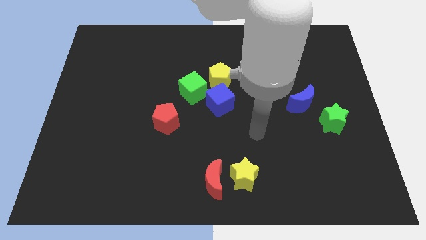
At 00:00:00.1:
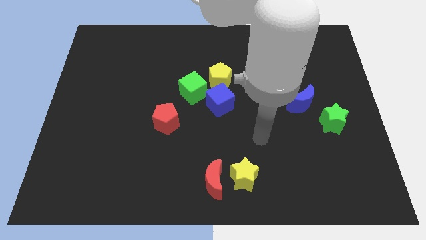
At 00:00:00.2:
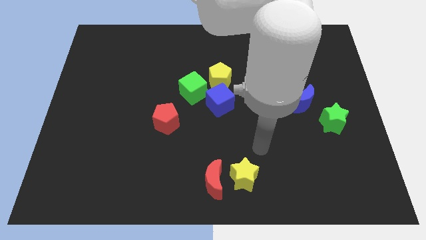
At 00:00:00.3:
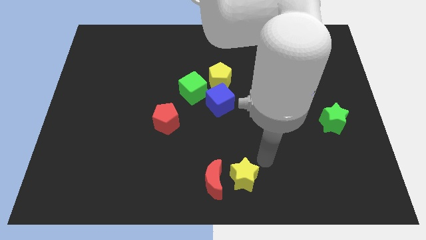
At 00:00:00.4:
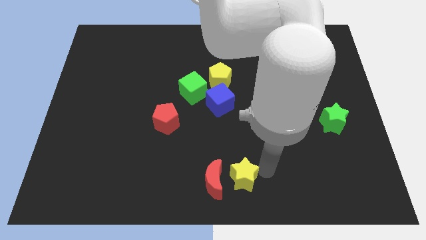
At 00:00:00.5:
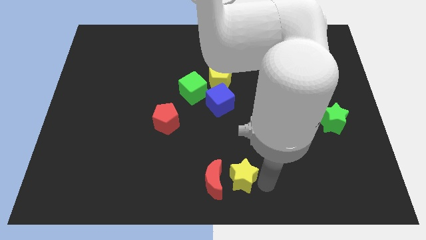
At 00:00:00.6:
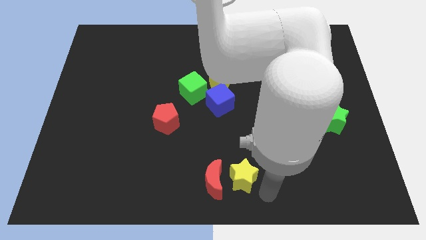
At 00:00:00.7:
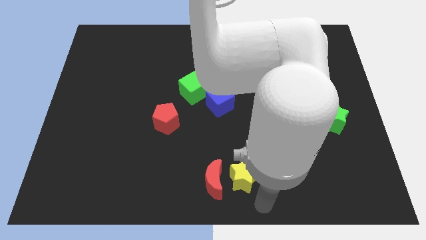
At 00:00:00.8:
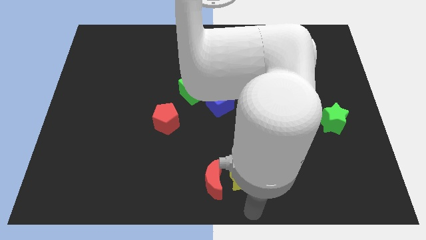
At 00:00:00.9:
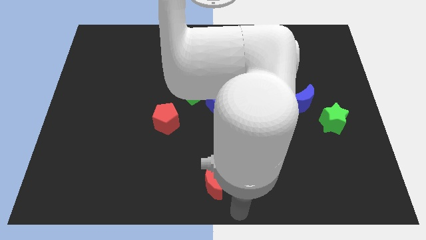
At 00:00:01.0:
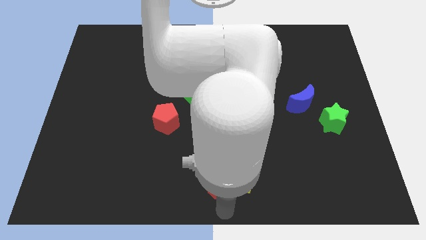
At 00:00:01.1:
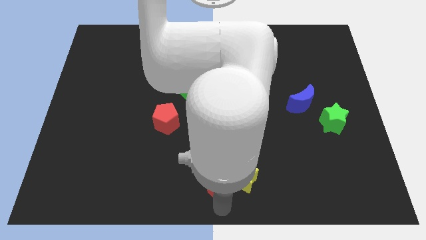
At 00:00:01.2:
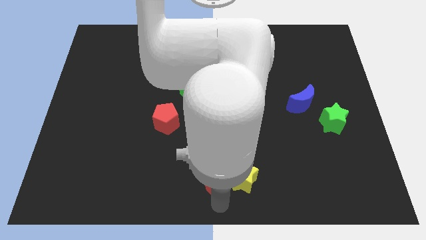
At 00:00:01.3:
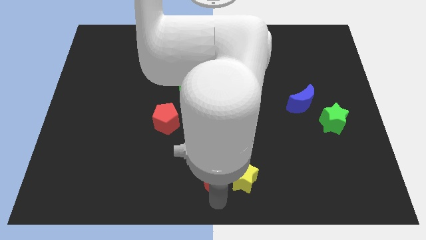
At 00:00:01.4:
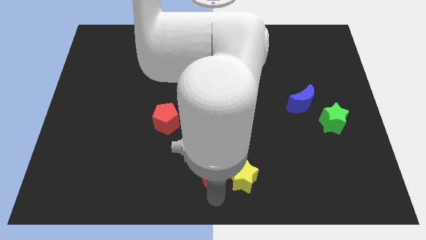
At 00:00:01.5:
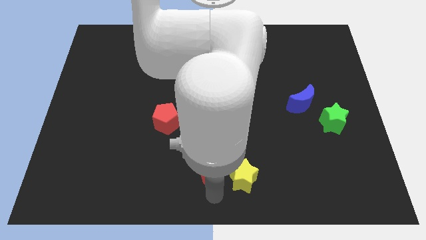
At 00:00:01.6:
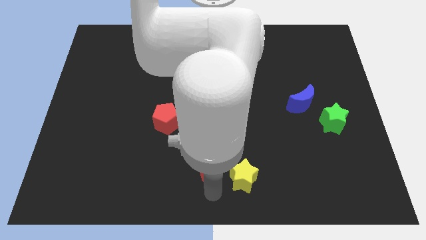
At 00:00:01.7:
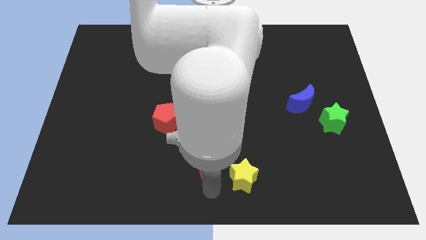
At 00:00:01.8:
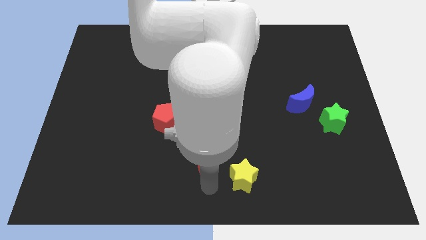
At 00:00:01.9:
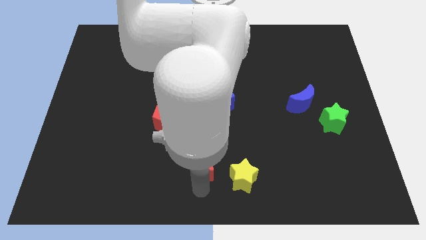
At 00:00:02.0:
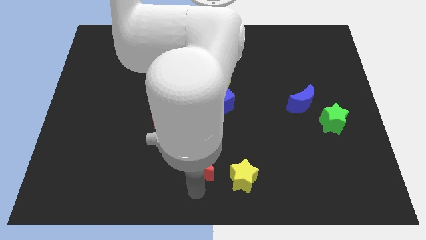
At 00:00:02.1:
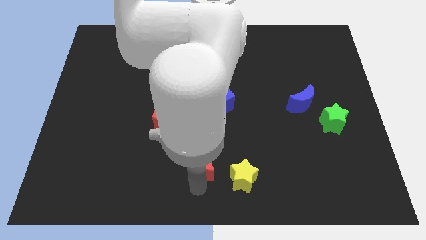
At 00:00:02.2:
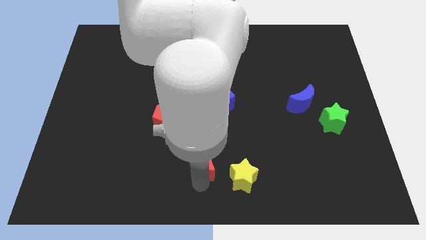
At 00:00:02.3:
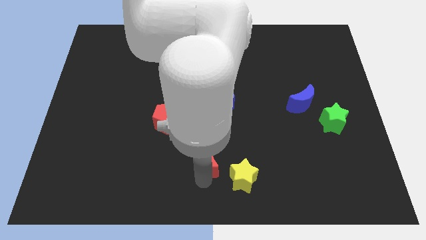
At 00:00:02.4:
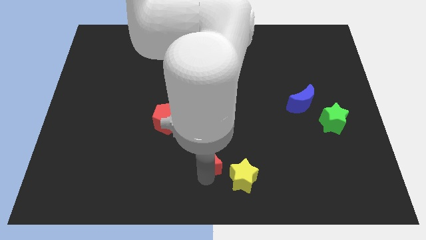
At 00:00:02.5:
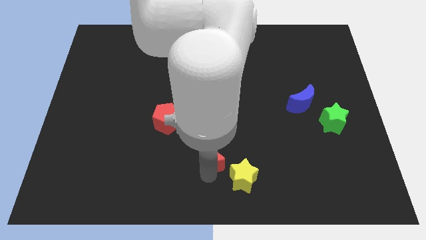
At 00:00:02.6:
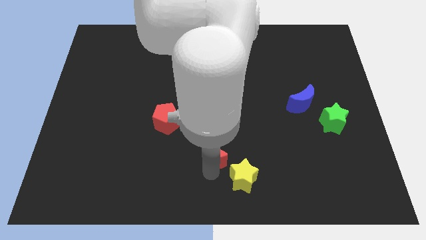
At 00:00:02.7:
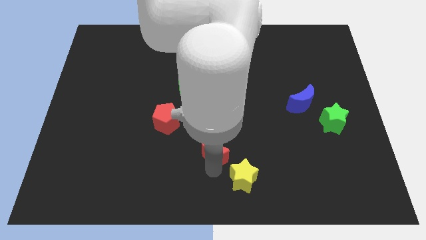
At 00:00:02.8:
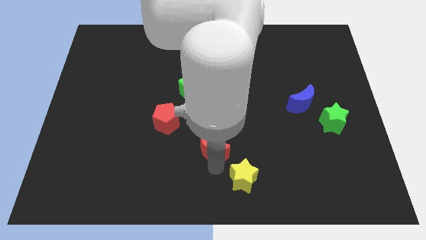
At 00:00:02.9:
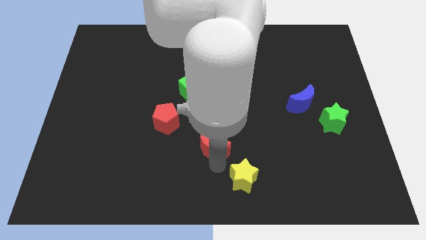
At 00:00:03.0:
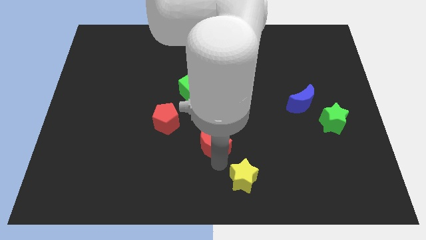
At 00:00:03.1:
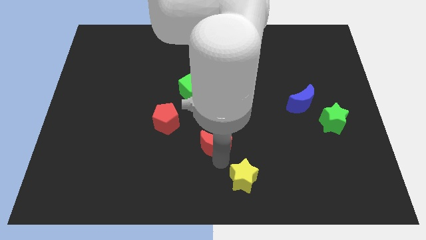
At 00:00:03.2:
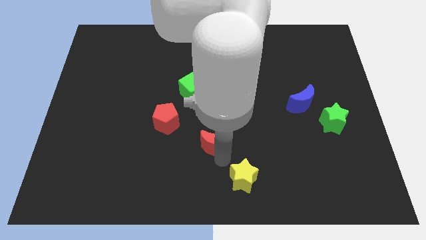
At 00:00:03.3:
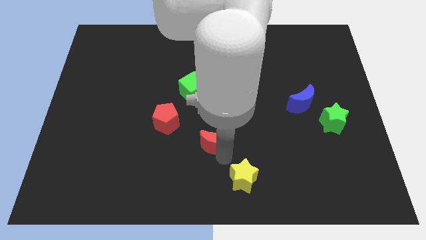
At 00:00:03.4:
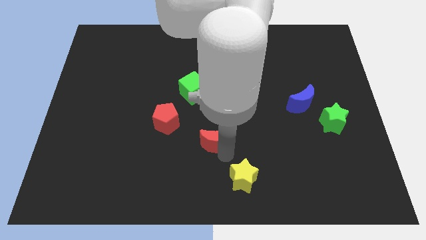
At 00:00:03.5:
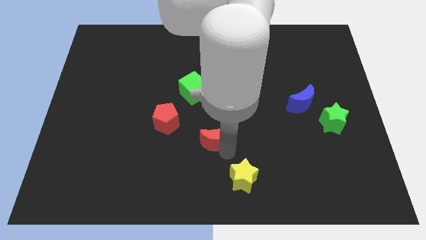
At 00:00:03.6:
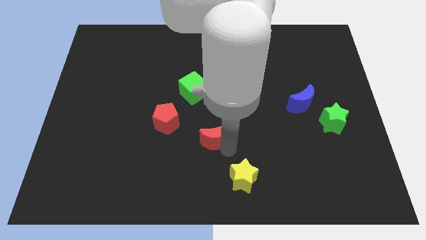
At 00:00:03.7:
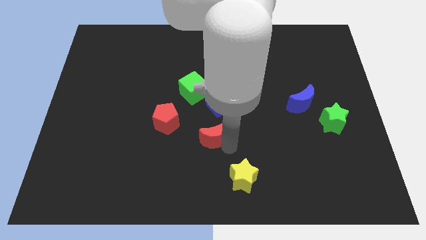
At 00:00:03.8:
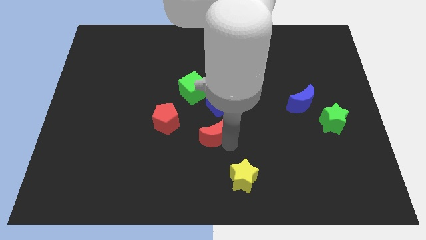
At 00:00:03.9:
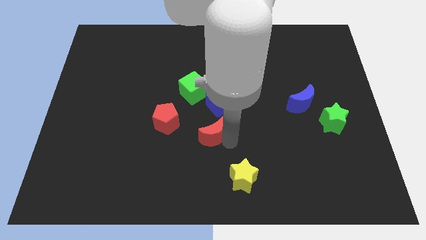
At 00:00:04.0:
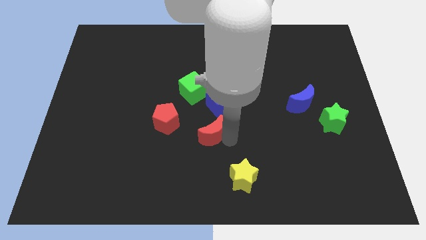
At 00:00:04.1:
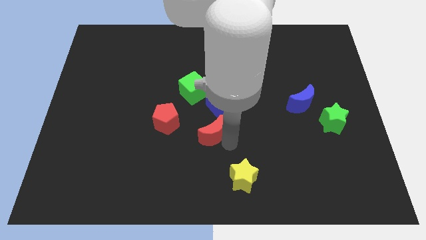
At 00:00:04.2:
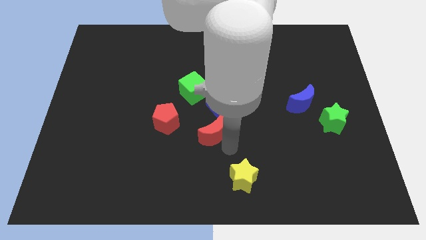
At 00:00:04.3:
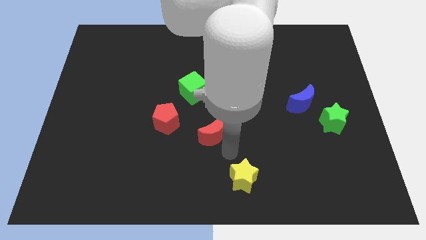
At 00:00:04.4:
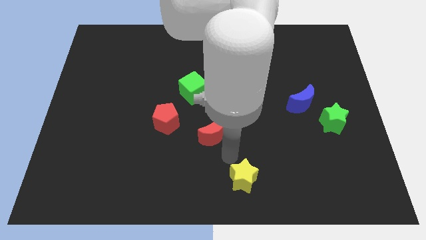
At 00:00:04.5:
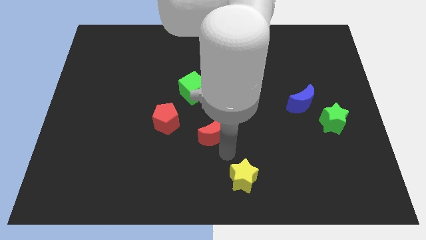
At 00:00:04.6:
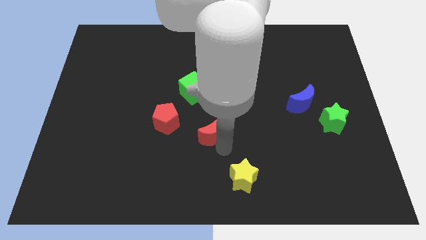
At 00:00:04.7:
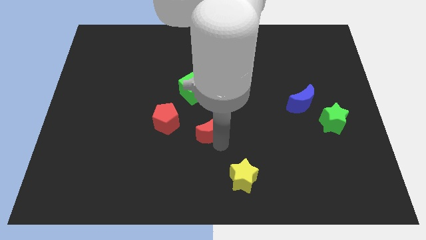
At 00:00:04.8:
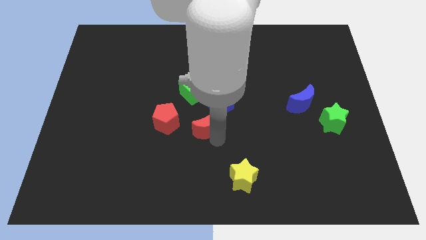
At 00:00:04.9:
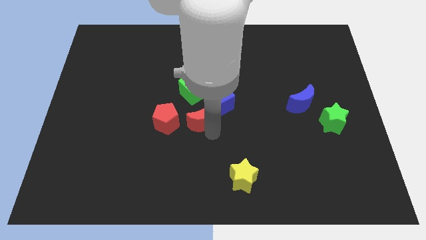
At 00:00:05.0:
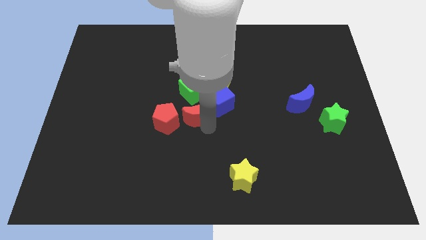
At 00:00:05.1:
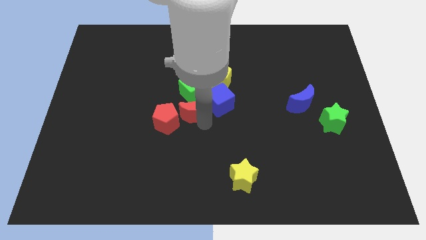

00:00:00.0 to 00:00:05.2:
push the red moon diagonally down and to the left of the yellow pentagon

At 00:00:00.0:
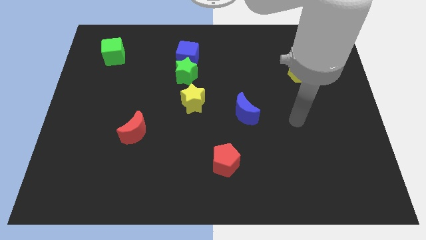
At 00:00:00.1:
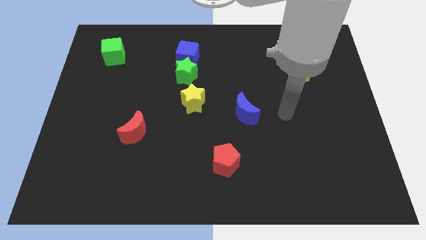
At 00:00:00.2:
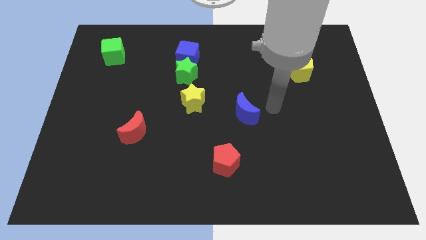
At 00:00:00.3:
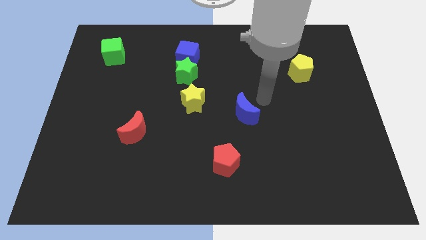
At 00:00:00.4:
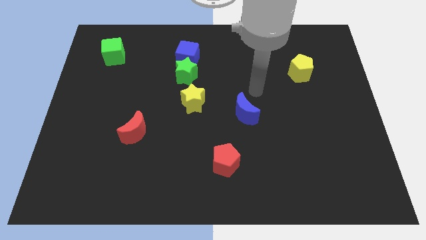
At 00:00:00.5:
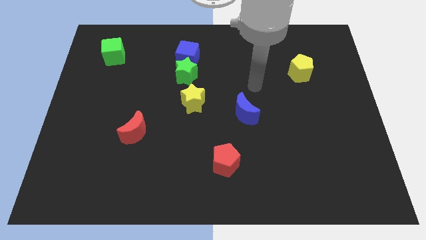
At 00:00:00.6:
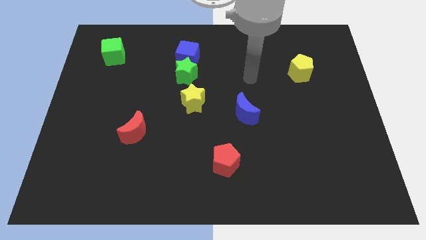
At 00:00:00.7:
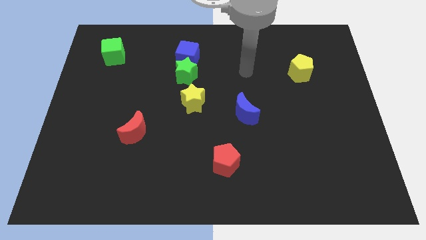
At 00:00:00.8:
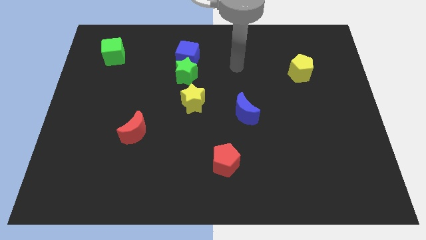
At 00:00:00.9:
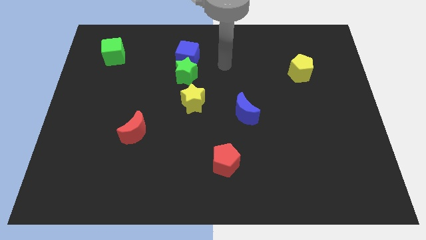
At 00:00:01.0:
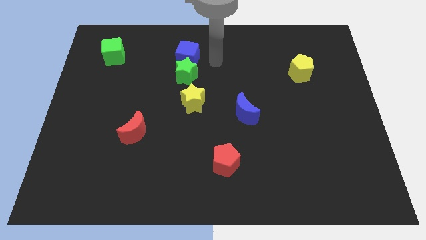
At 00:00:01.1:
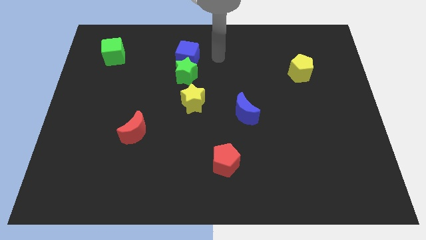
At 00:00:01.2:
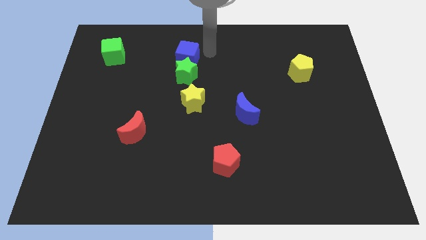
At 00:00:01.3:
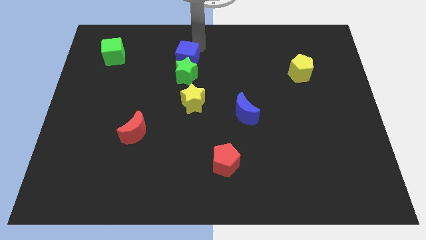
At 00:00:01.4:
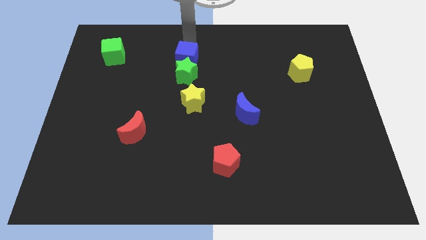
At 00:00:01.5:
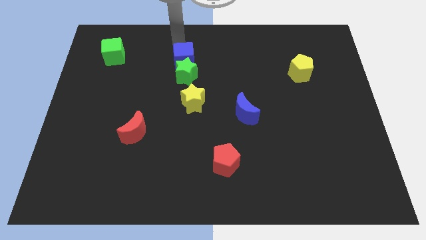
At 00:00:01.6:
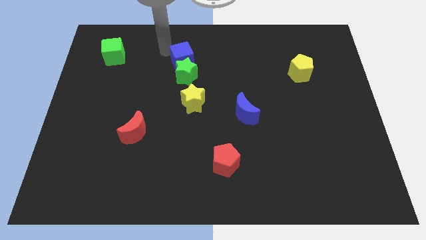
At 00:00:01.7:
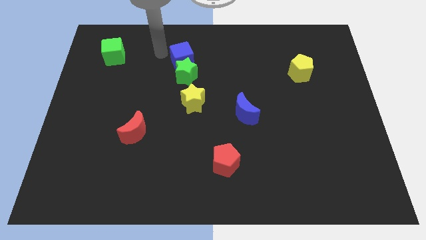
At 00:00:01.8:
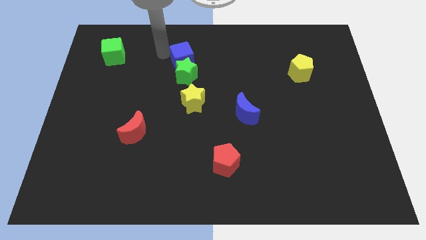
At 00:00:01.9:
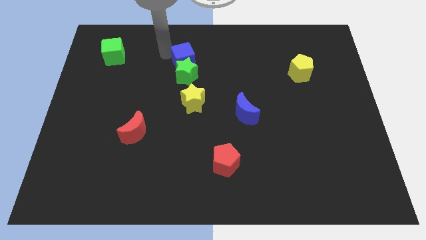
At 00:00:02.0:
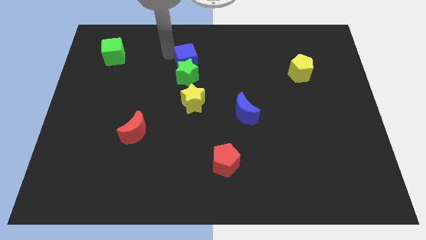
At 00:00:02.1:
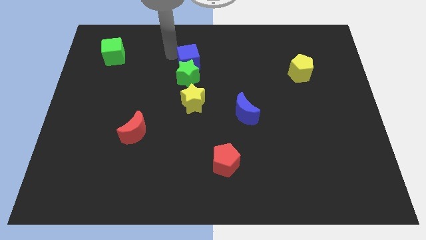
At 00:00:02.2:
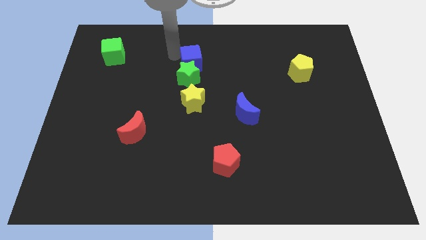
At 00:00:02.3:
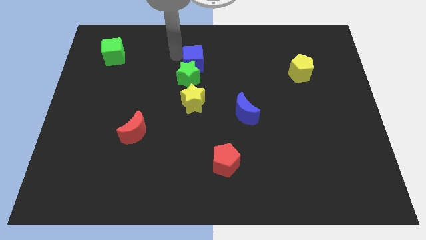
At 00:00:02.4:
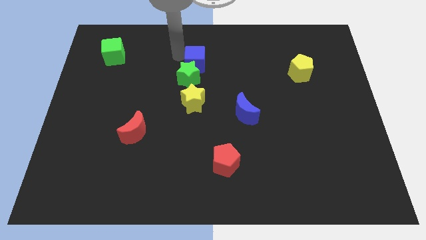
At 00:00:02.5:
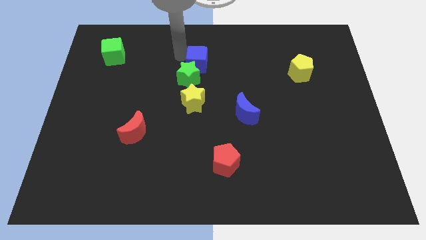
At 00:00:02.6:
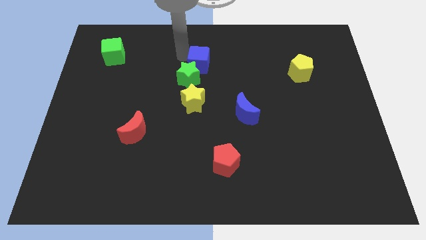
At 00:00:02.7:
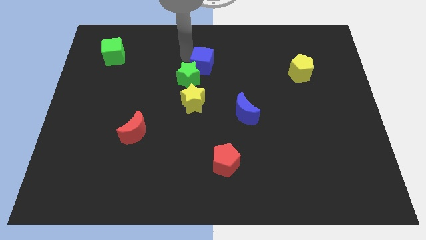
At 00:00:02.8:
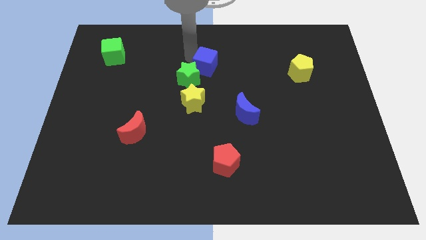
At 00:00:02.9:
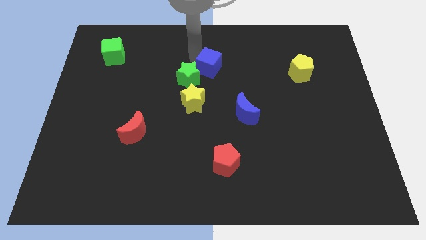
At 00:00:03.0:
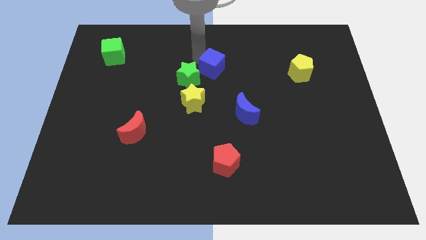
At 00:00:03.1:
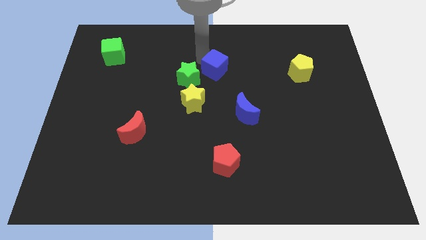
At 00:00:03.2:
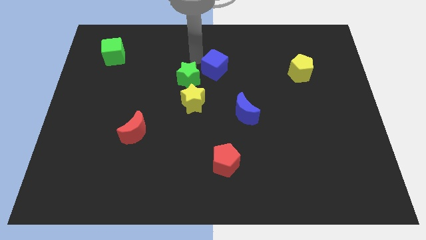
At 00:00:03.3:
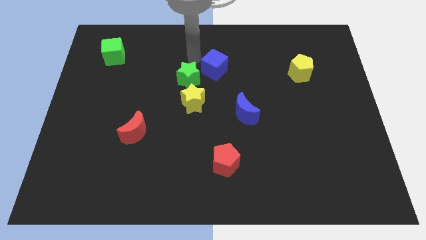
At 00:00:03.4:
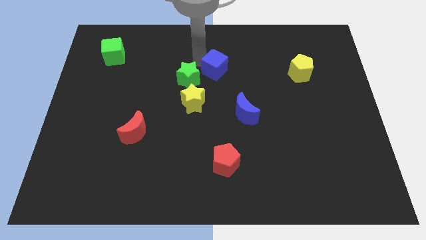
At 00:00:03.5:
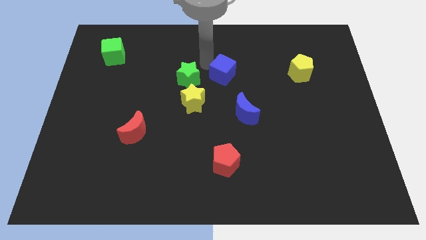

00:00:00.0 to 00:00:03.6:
push the blue cube above the blue moon
